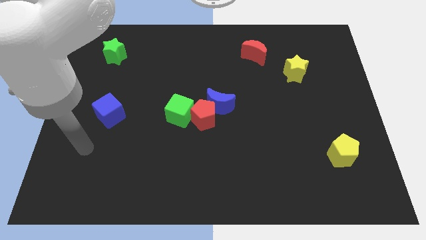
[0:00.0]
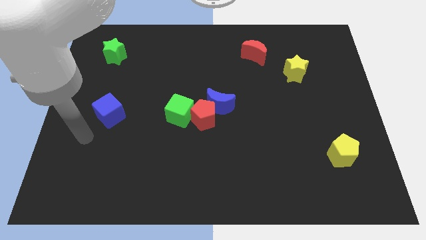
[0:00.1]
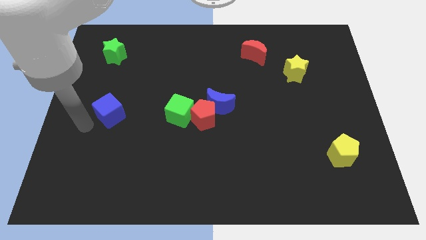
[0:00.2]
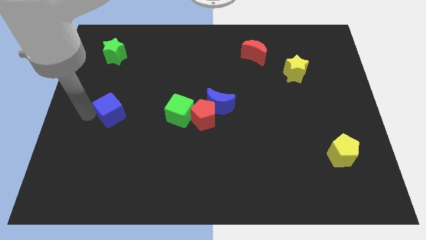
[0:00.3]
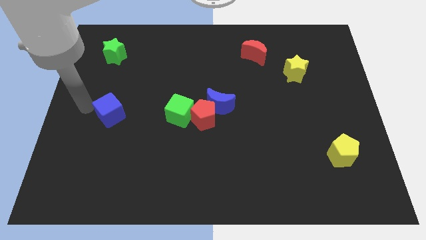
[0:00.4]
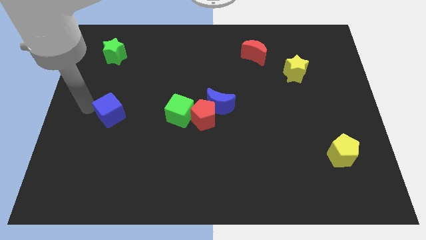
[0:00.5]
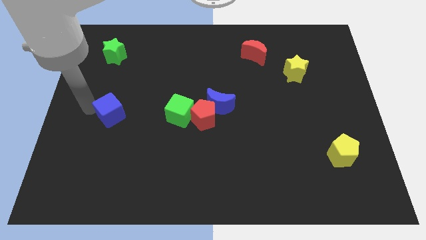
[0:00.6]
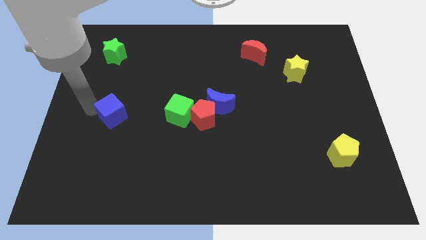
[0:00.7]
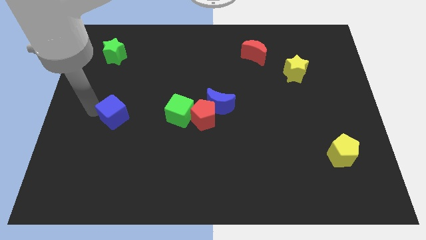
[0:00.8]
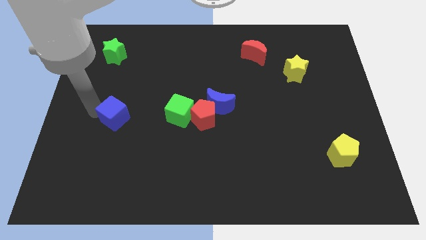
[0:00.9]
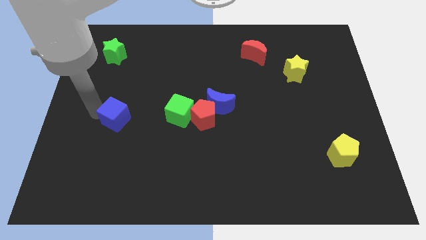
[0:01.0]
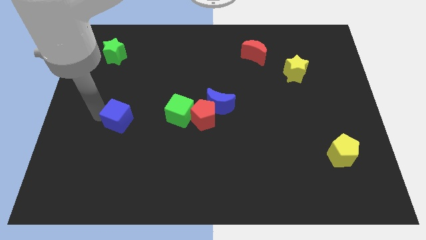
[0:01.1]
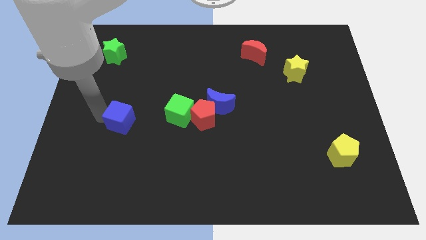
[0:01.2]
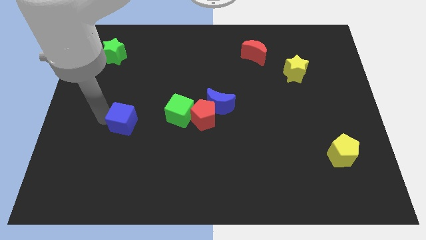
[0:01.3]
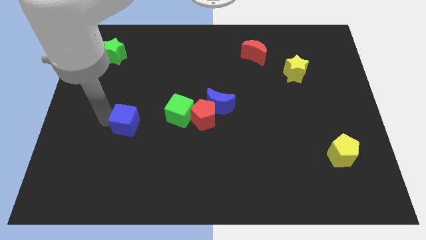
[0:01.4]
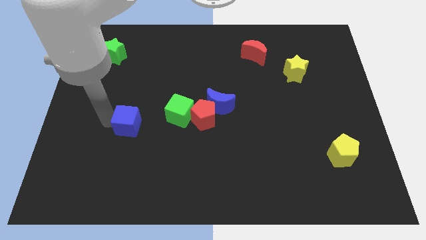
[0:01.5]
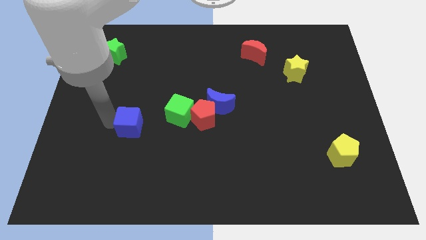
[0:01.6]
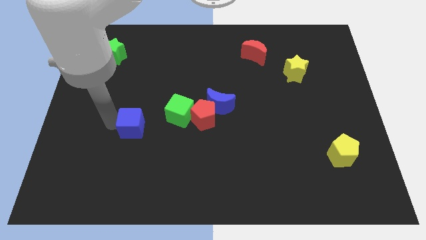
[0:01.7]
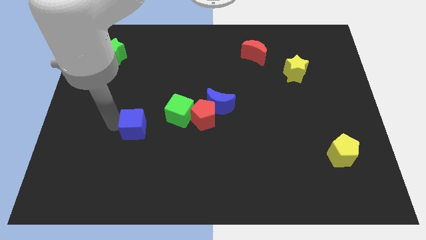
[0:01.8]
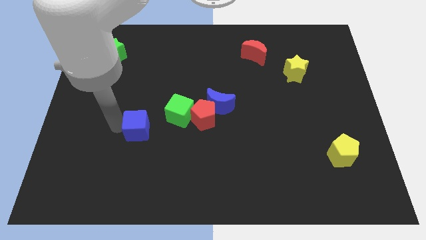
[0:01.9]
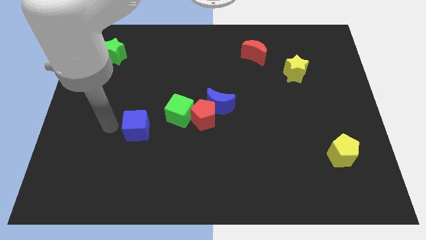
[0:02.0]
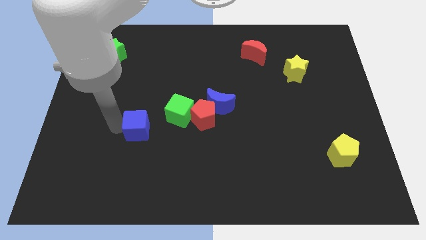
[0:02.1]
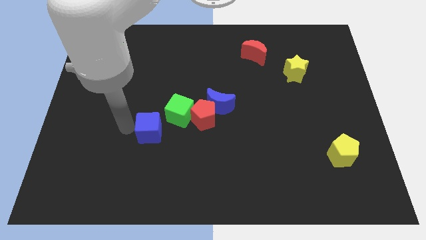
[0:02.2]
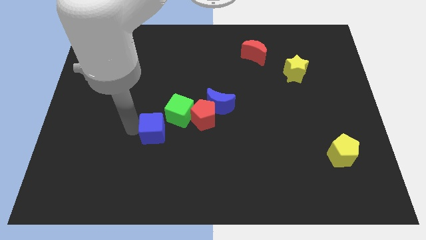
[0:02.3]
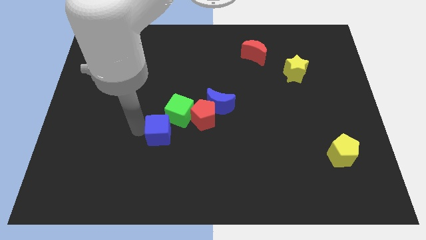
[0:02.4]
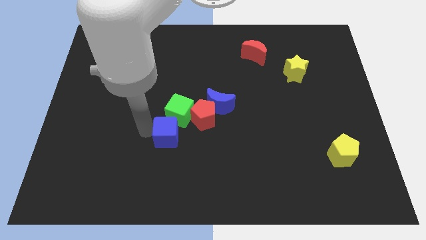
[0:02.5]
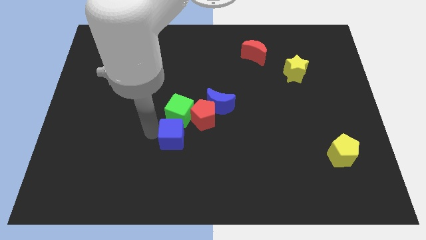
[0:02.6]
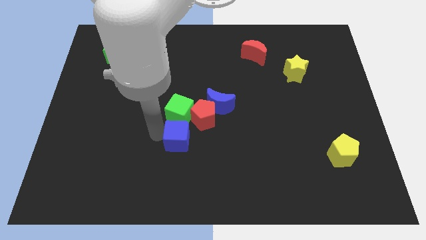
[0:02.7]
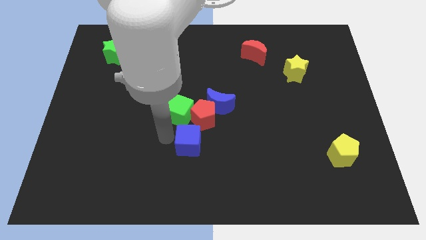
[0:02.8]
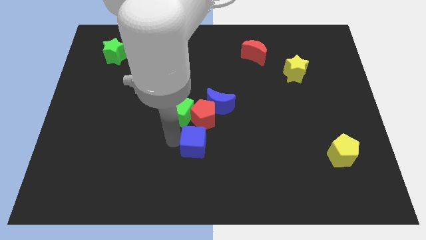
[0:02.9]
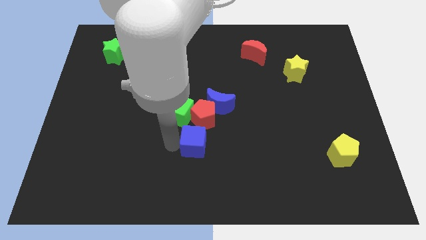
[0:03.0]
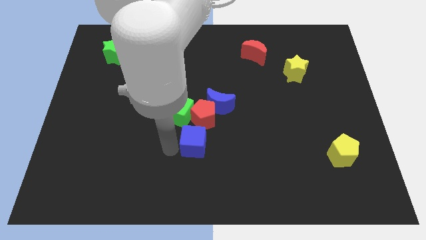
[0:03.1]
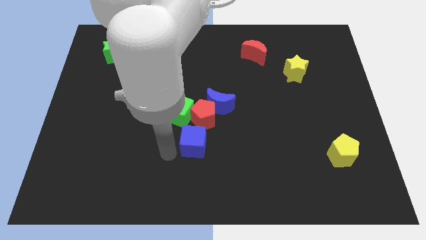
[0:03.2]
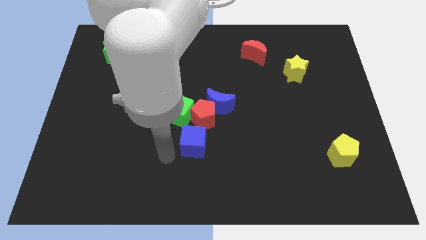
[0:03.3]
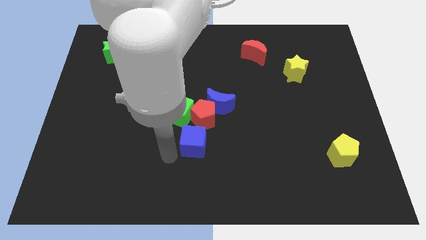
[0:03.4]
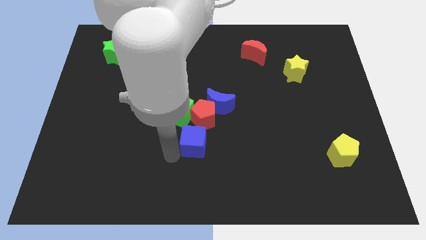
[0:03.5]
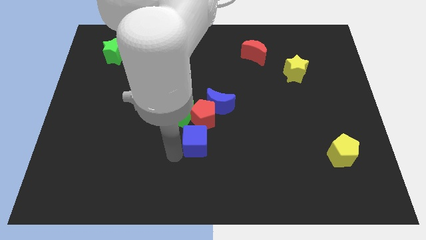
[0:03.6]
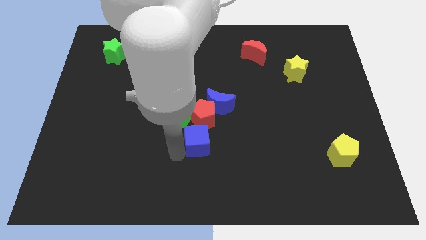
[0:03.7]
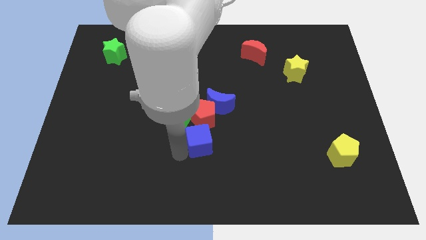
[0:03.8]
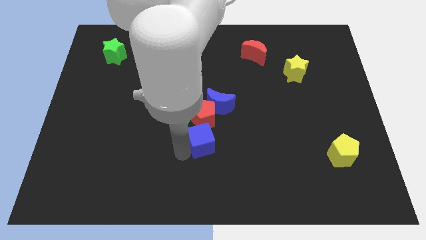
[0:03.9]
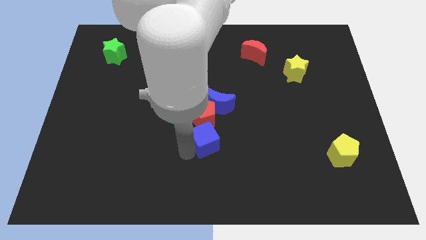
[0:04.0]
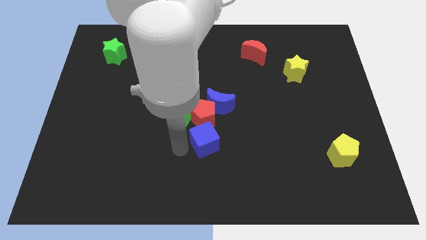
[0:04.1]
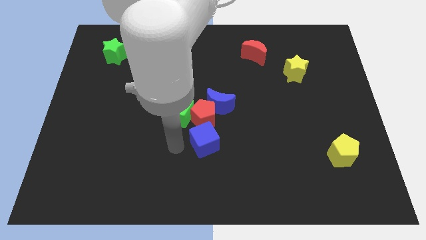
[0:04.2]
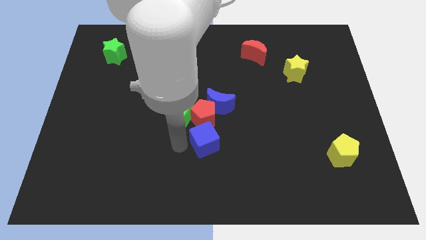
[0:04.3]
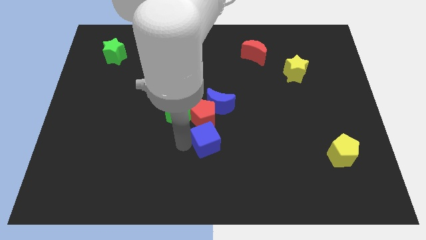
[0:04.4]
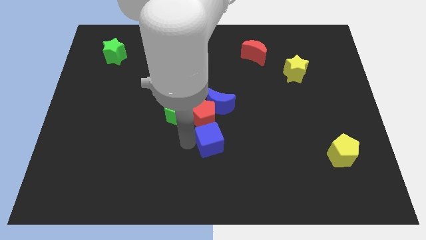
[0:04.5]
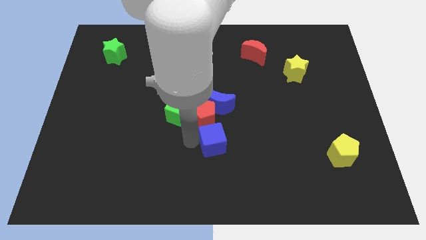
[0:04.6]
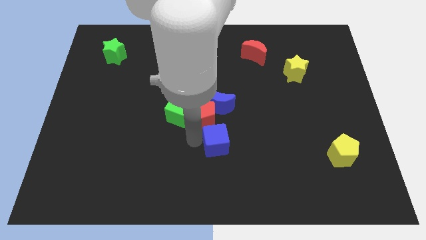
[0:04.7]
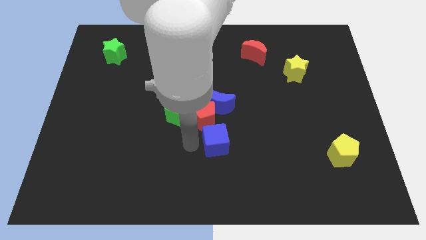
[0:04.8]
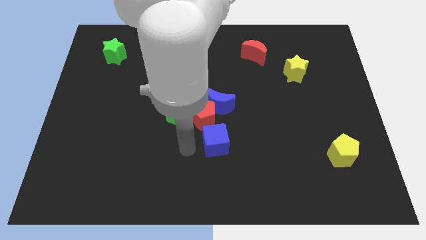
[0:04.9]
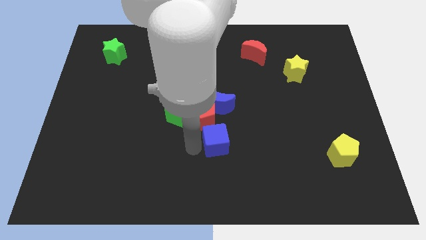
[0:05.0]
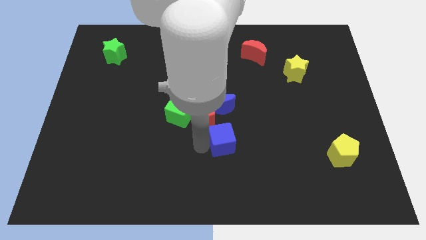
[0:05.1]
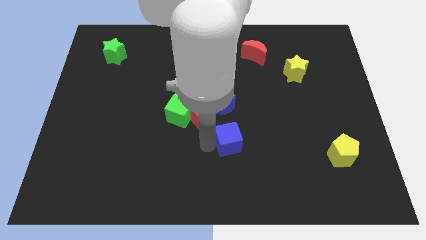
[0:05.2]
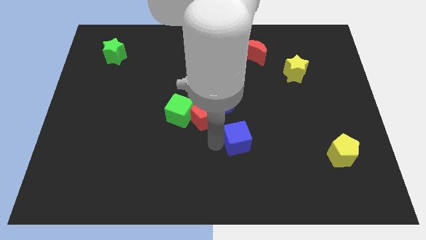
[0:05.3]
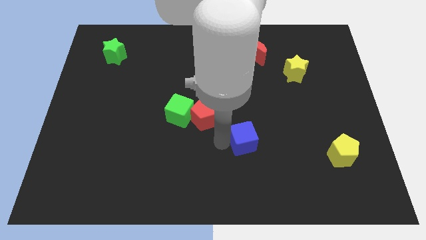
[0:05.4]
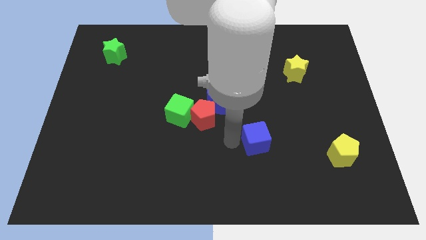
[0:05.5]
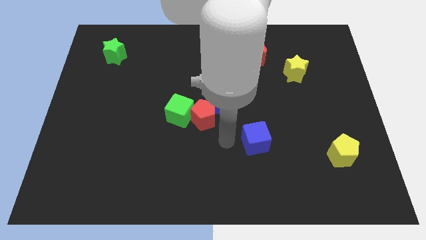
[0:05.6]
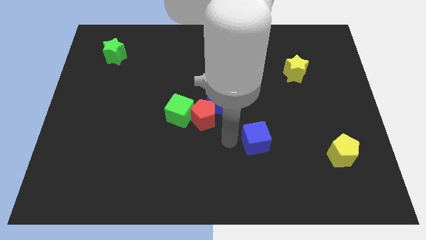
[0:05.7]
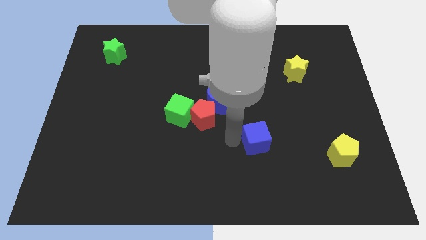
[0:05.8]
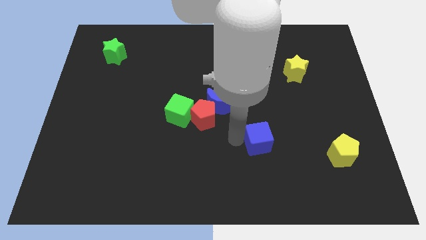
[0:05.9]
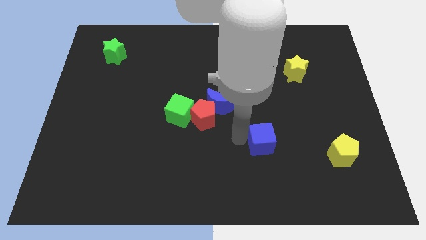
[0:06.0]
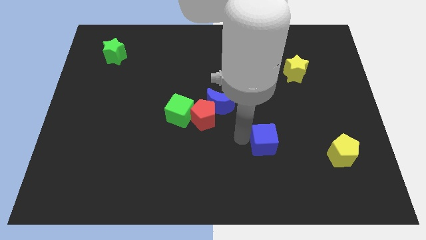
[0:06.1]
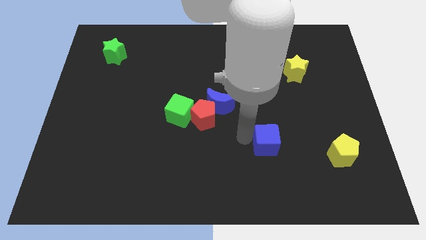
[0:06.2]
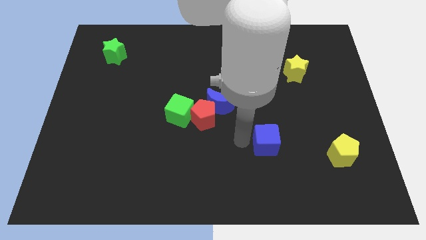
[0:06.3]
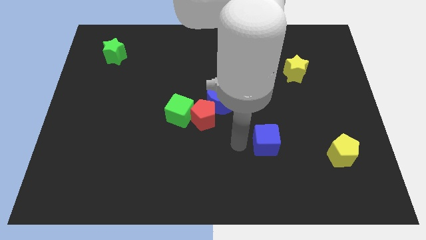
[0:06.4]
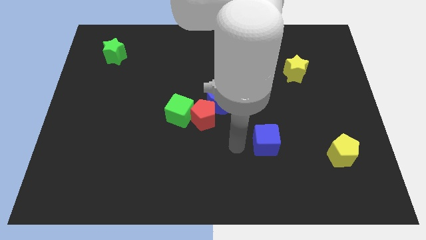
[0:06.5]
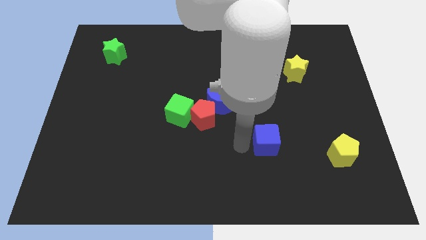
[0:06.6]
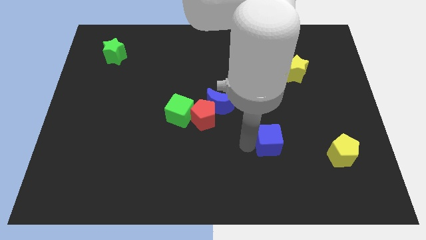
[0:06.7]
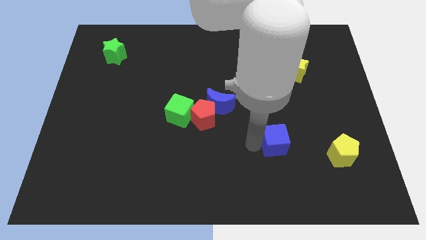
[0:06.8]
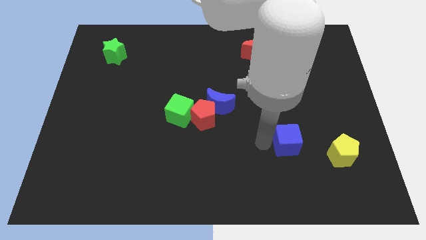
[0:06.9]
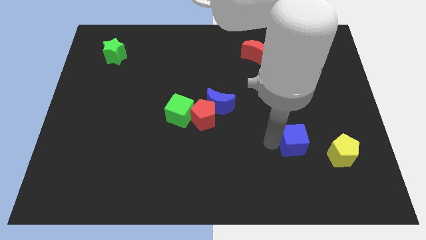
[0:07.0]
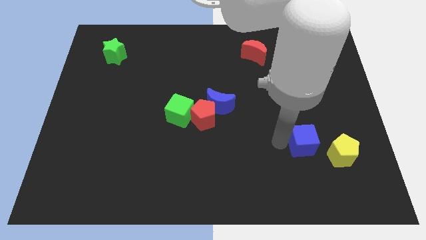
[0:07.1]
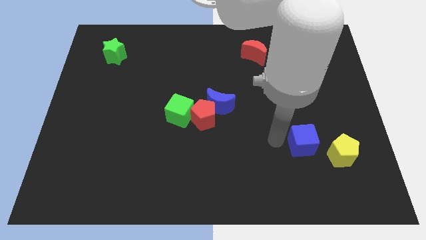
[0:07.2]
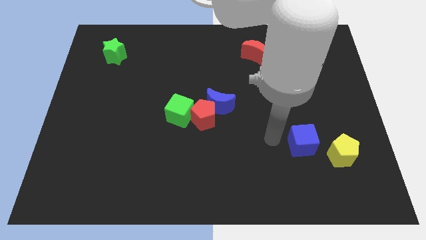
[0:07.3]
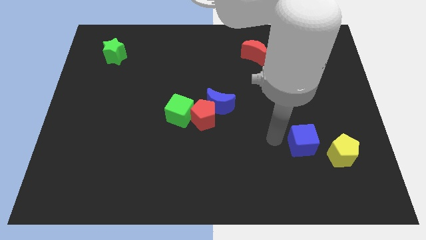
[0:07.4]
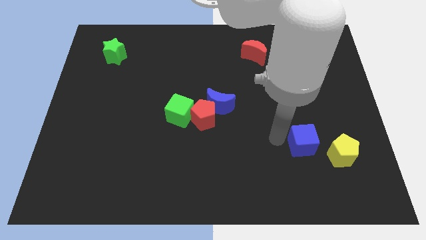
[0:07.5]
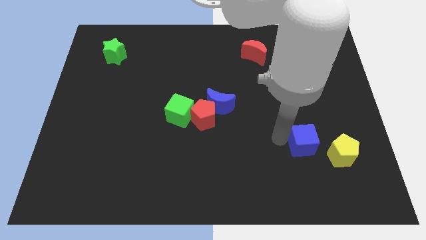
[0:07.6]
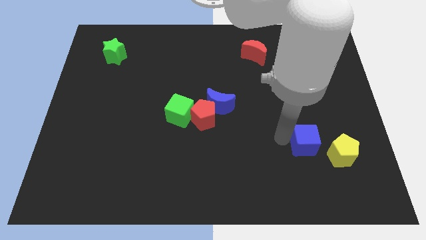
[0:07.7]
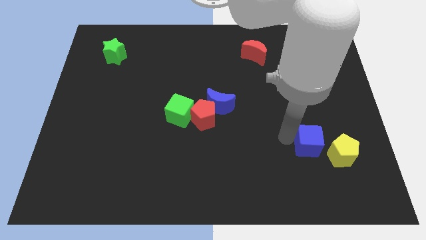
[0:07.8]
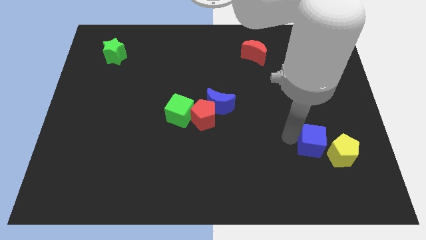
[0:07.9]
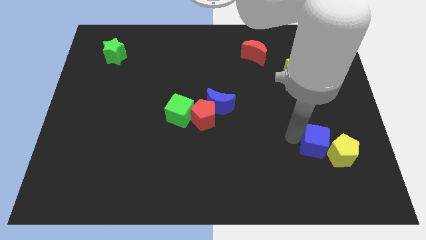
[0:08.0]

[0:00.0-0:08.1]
put the blue cube towards the yellow pentagon
